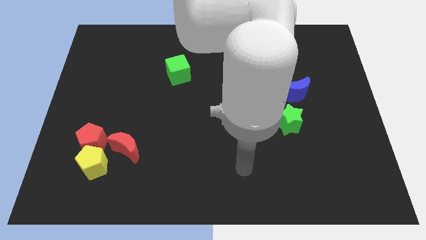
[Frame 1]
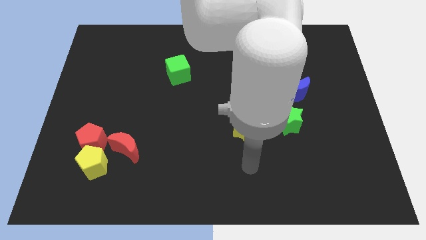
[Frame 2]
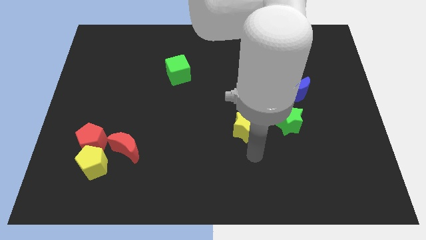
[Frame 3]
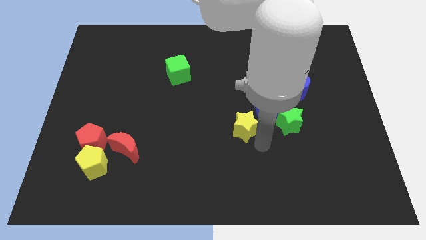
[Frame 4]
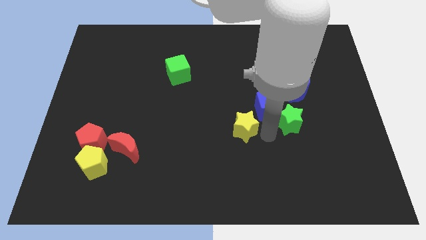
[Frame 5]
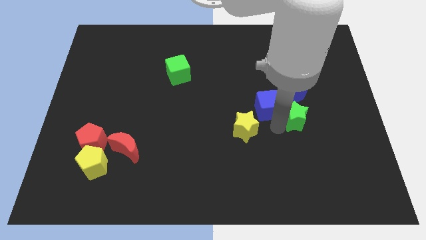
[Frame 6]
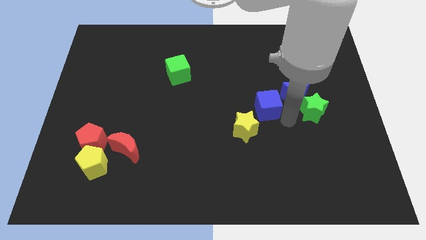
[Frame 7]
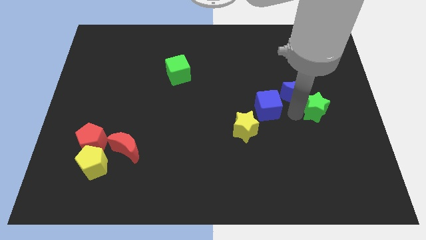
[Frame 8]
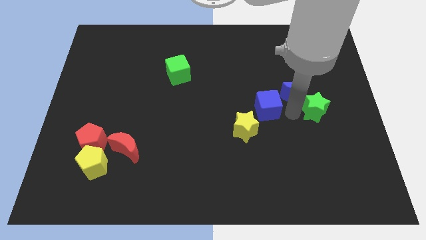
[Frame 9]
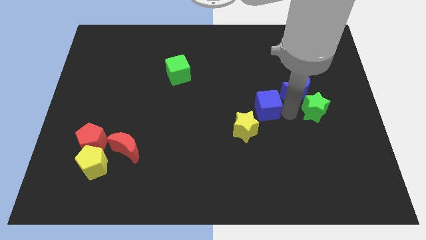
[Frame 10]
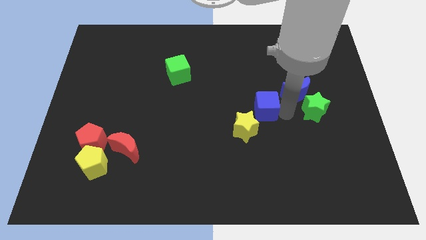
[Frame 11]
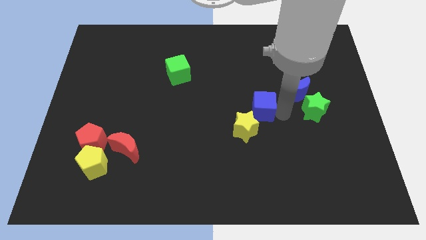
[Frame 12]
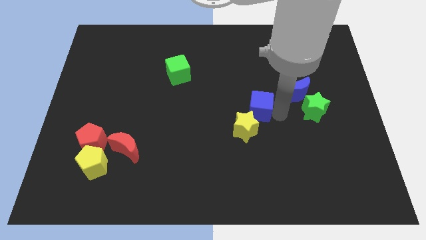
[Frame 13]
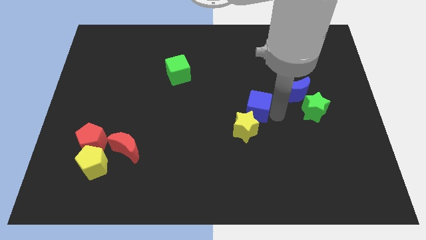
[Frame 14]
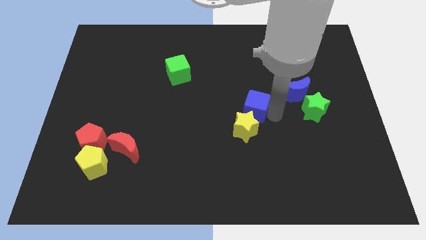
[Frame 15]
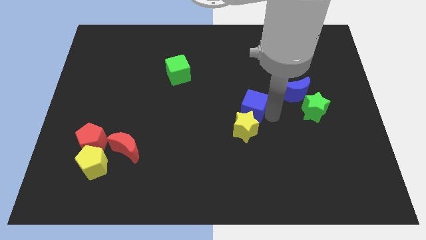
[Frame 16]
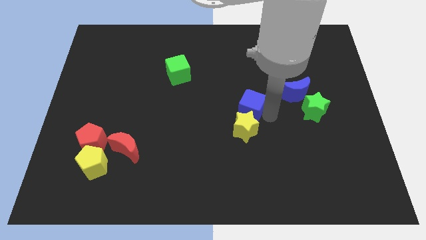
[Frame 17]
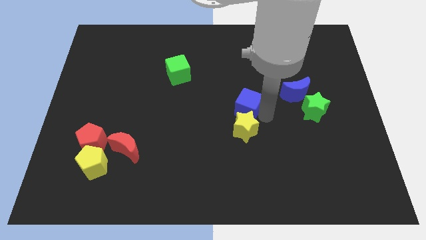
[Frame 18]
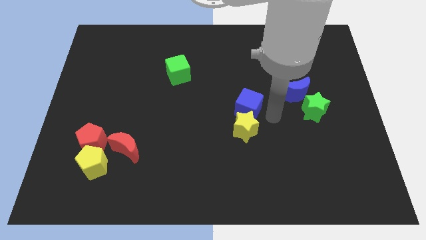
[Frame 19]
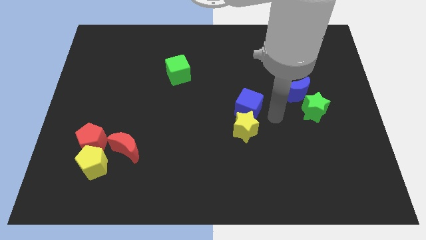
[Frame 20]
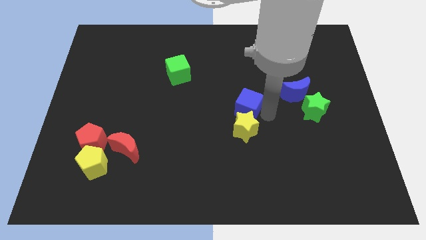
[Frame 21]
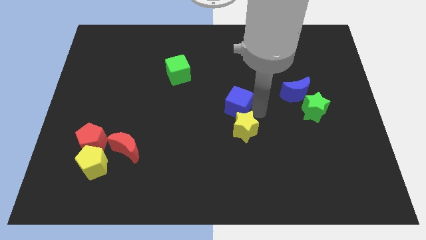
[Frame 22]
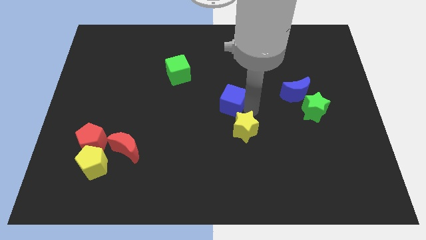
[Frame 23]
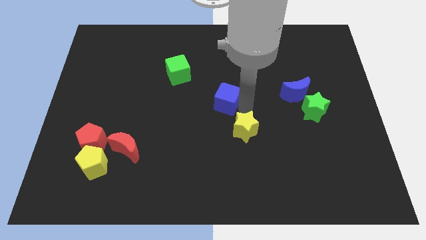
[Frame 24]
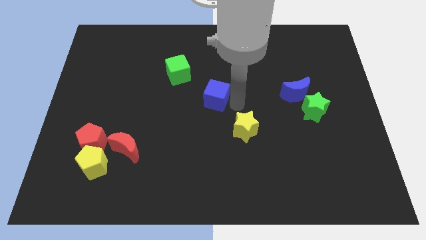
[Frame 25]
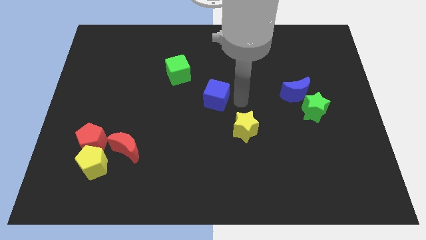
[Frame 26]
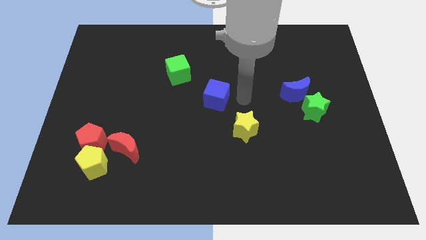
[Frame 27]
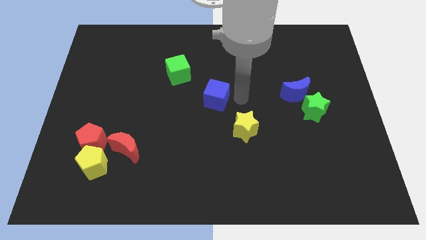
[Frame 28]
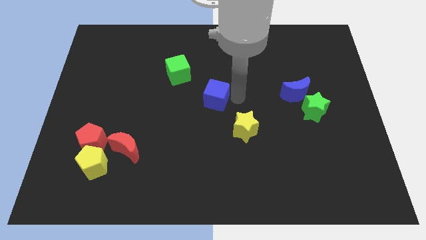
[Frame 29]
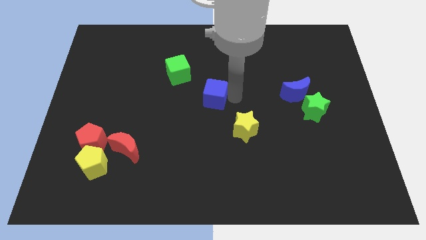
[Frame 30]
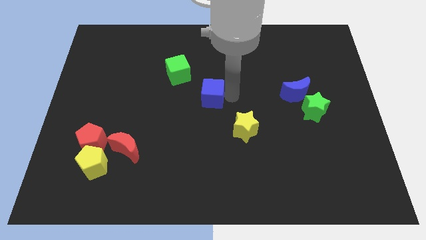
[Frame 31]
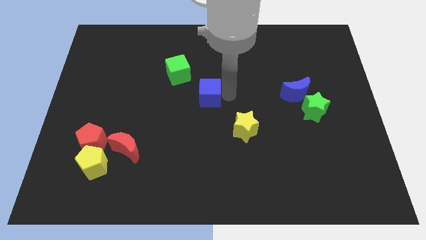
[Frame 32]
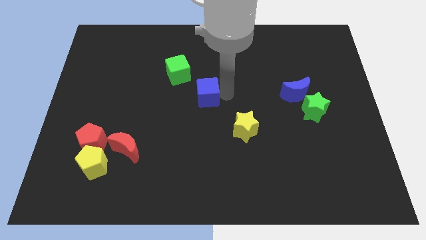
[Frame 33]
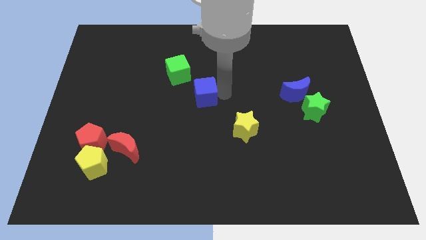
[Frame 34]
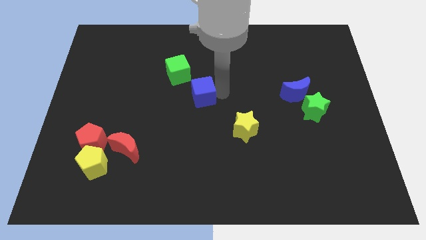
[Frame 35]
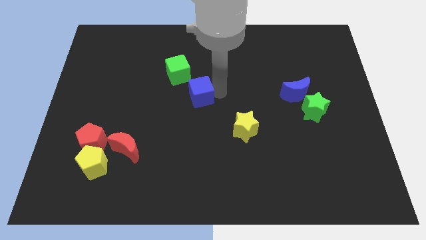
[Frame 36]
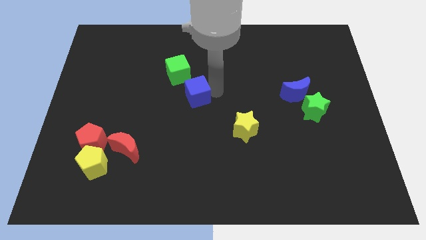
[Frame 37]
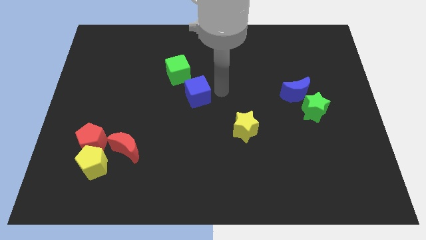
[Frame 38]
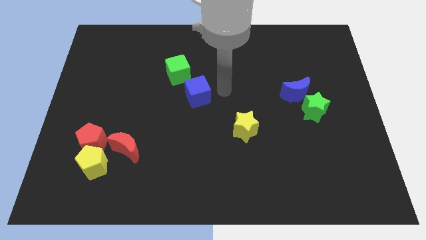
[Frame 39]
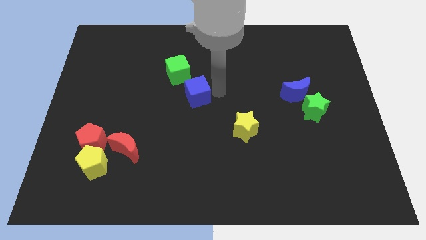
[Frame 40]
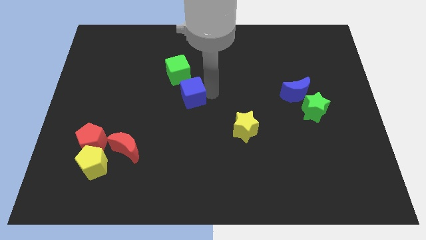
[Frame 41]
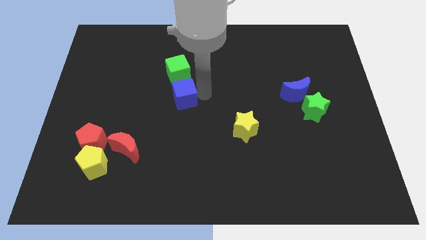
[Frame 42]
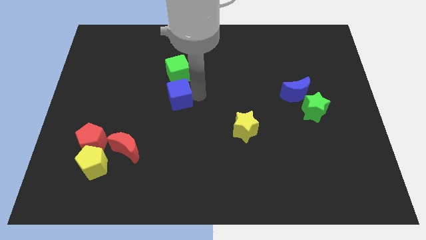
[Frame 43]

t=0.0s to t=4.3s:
slide the blue cube left

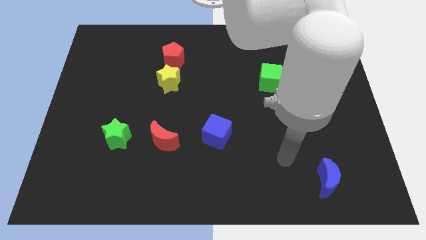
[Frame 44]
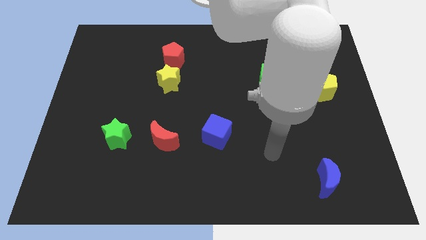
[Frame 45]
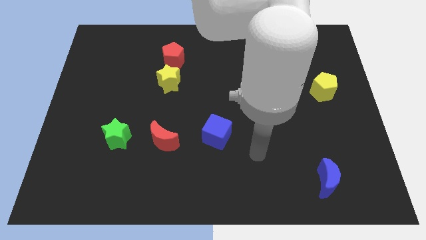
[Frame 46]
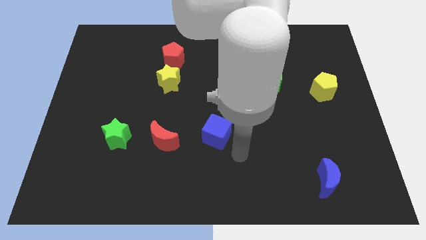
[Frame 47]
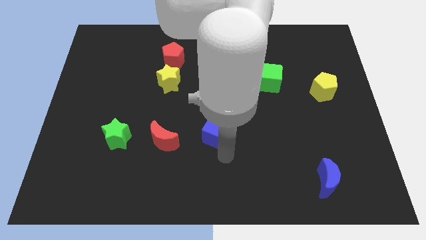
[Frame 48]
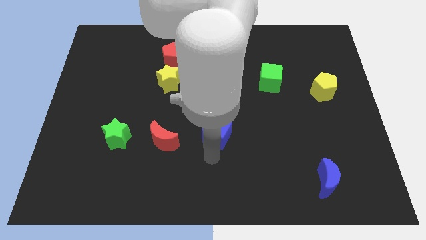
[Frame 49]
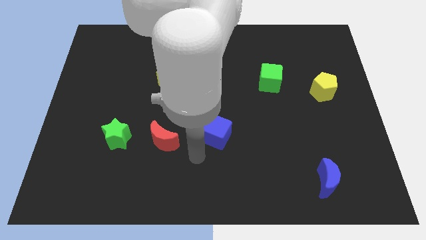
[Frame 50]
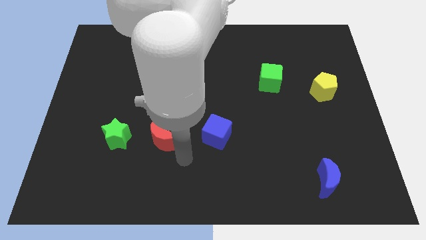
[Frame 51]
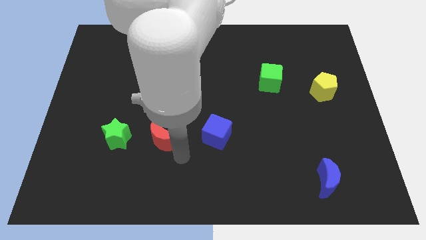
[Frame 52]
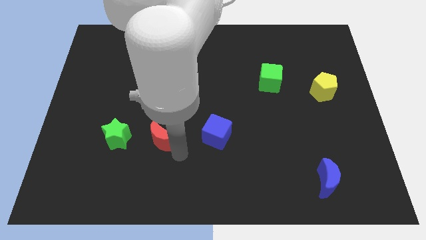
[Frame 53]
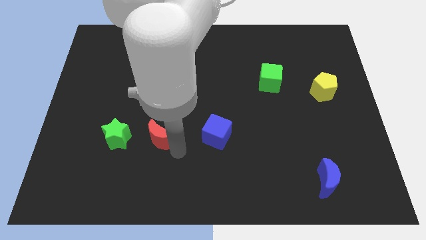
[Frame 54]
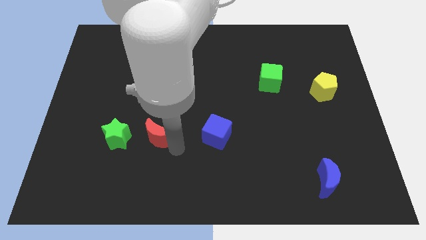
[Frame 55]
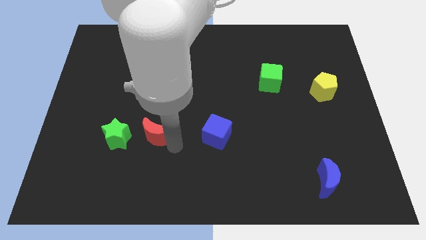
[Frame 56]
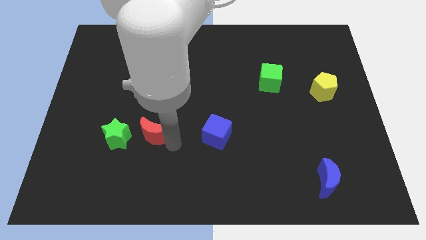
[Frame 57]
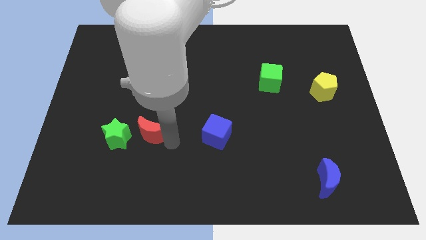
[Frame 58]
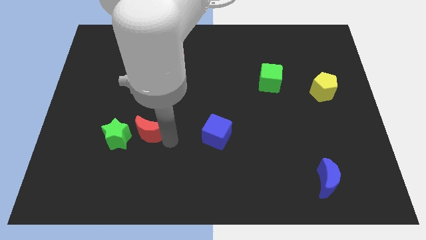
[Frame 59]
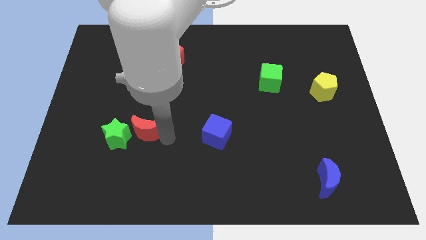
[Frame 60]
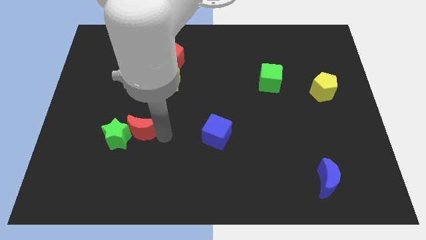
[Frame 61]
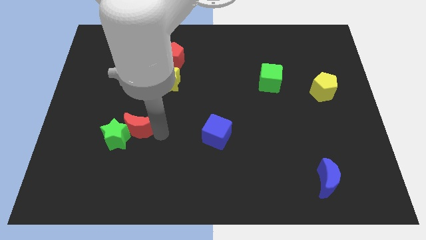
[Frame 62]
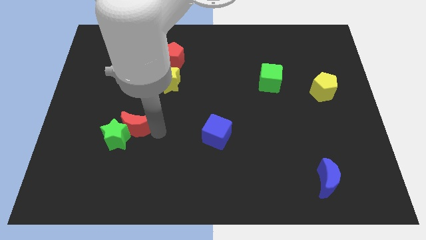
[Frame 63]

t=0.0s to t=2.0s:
slightly move the red moon up and then left

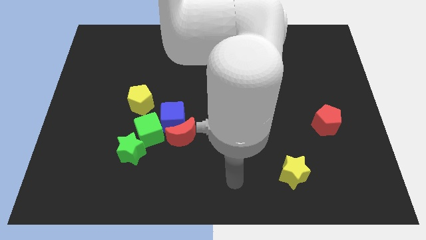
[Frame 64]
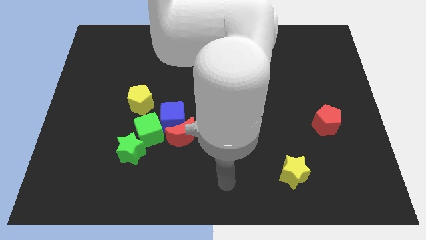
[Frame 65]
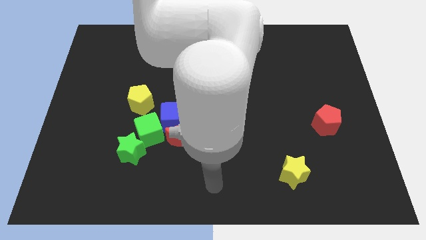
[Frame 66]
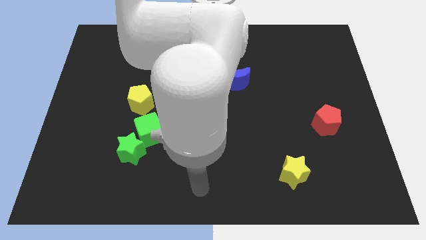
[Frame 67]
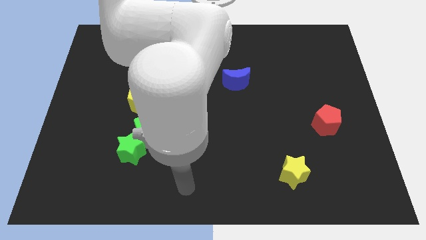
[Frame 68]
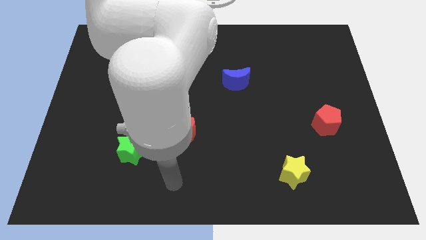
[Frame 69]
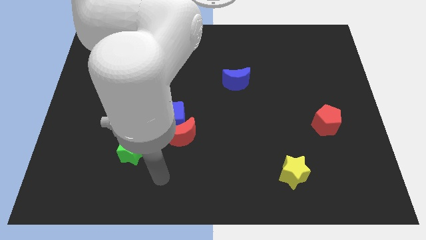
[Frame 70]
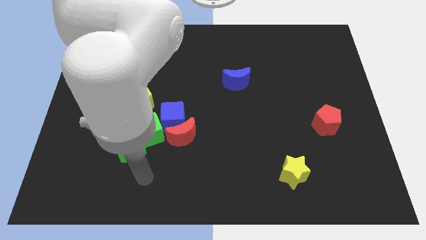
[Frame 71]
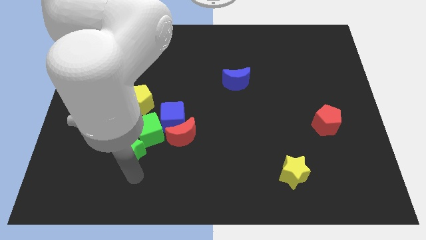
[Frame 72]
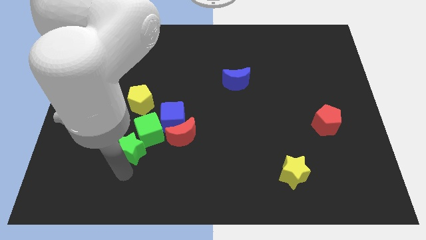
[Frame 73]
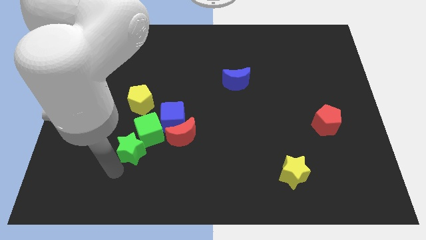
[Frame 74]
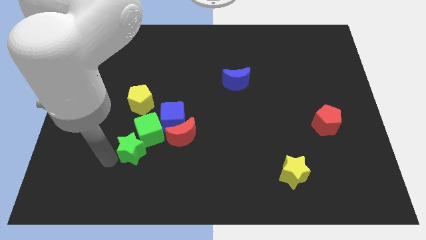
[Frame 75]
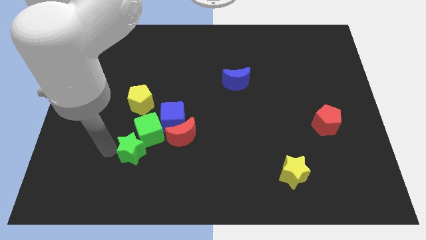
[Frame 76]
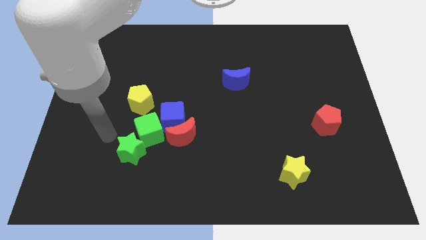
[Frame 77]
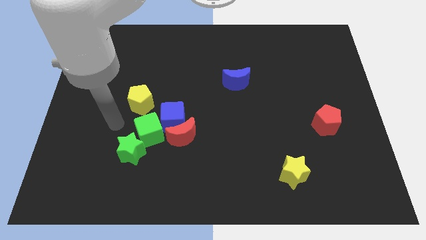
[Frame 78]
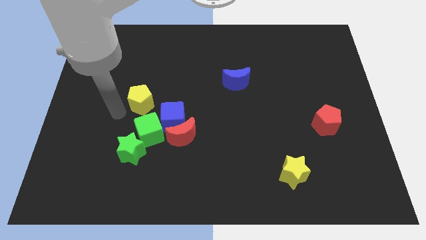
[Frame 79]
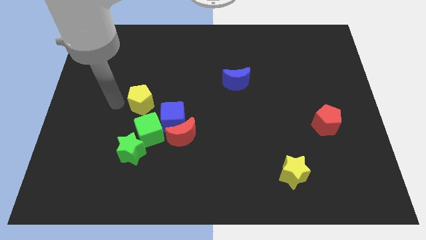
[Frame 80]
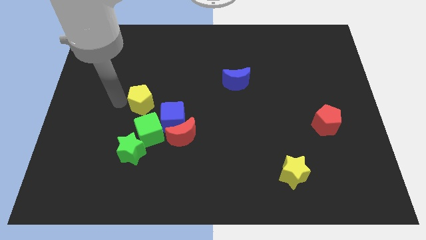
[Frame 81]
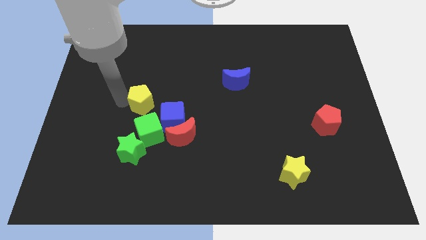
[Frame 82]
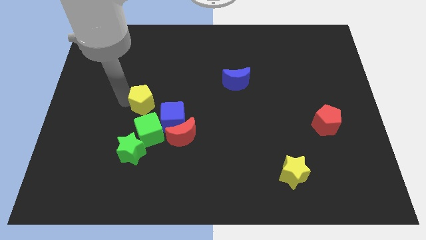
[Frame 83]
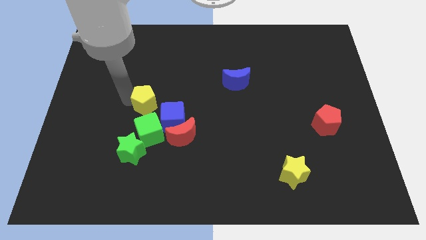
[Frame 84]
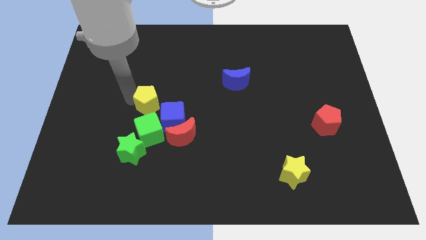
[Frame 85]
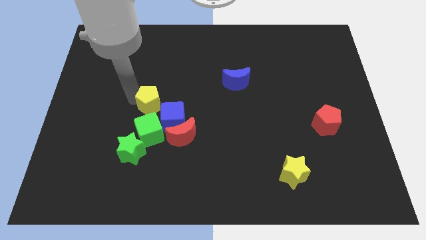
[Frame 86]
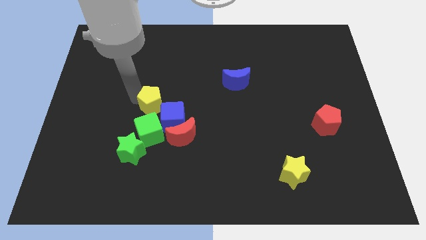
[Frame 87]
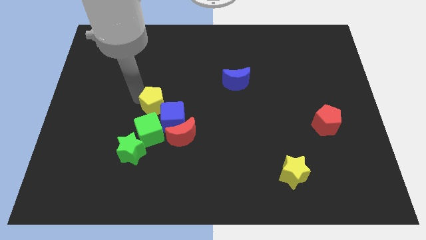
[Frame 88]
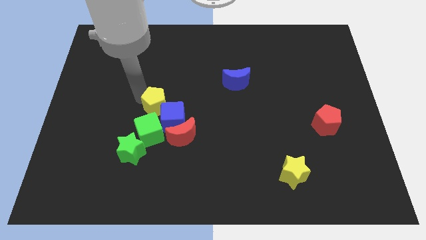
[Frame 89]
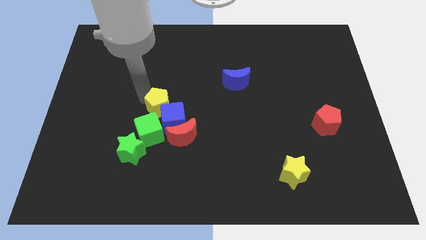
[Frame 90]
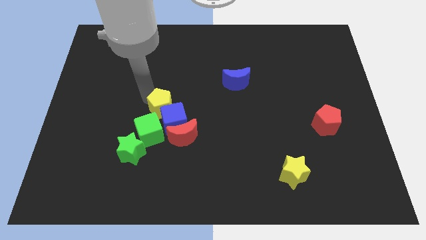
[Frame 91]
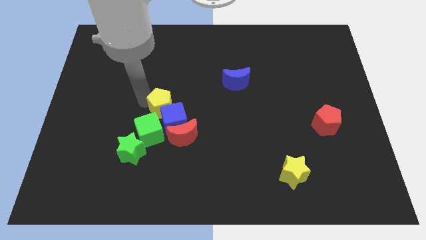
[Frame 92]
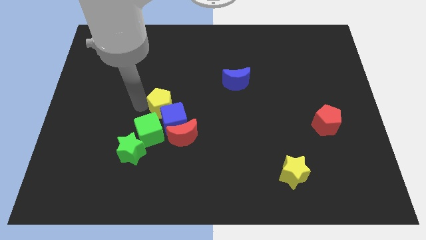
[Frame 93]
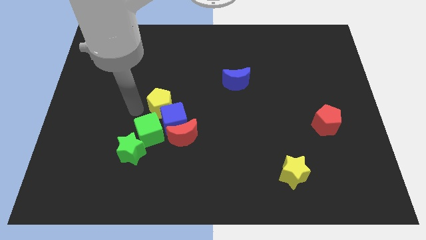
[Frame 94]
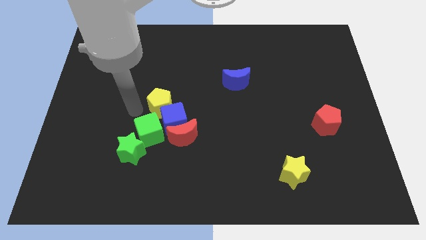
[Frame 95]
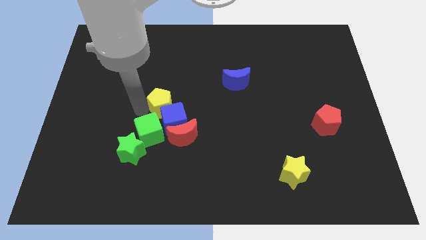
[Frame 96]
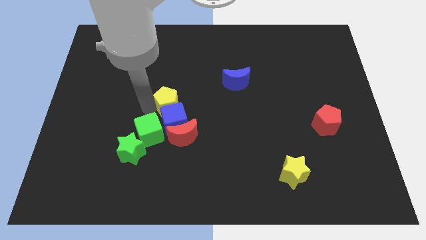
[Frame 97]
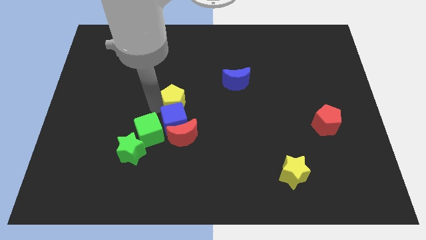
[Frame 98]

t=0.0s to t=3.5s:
move the yellow pentagon a little right
